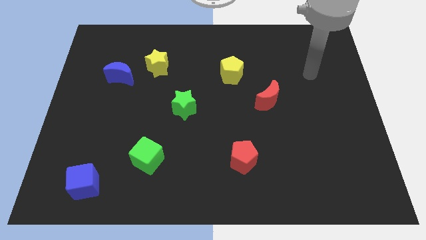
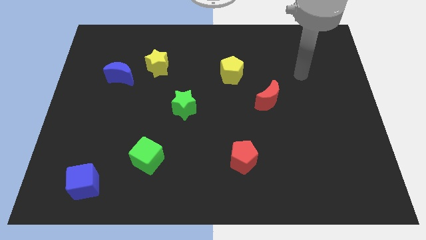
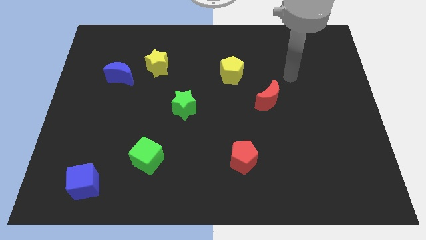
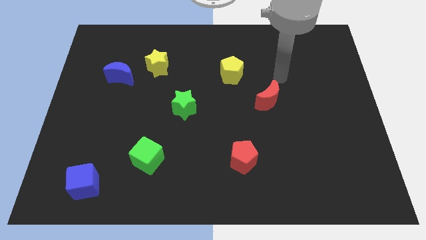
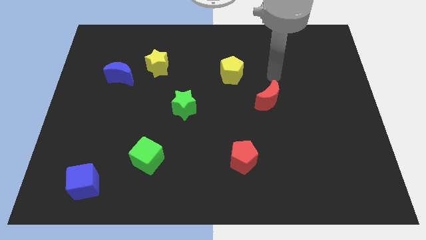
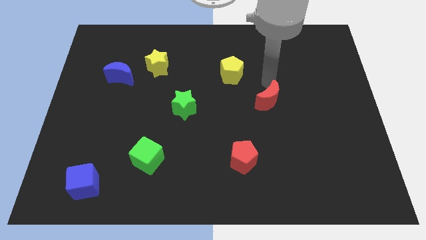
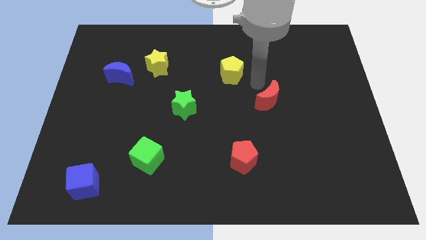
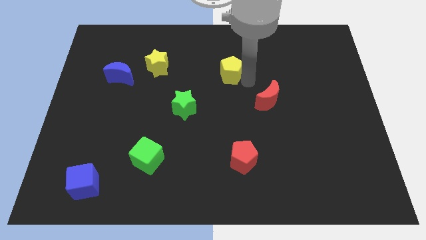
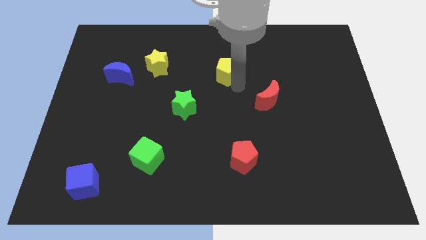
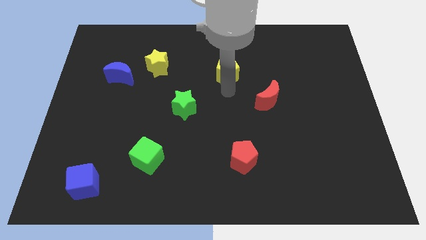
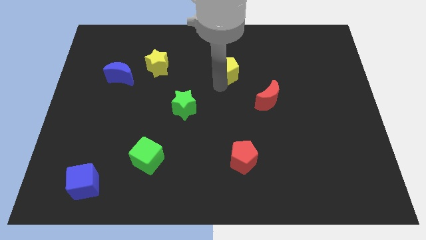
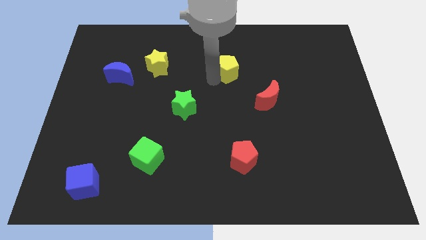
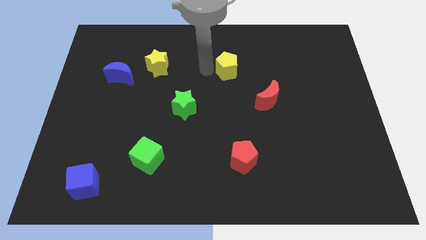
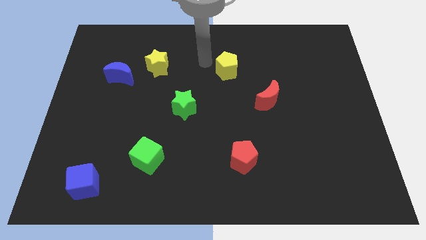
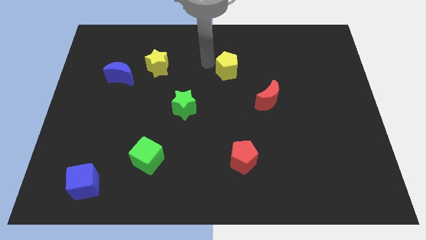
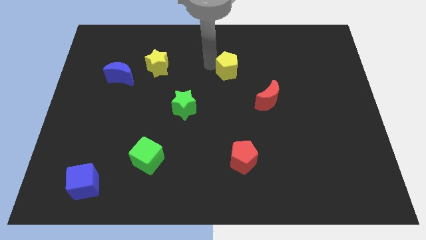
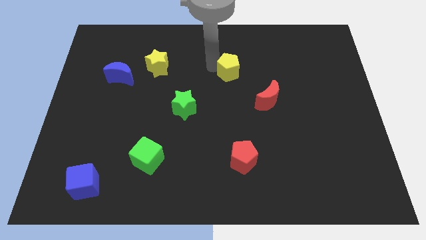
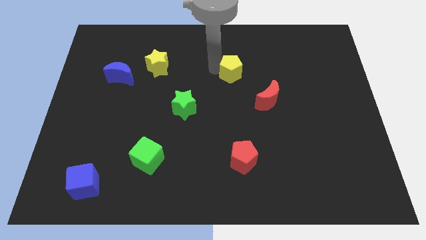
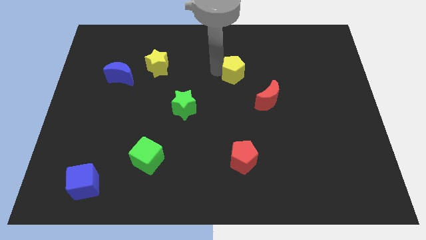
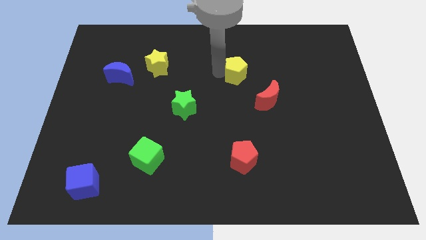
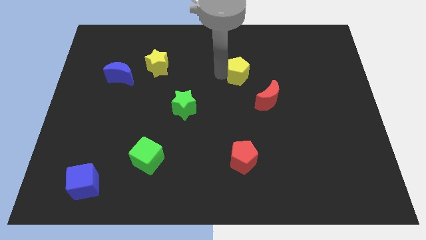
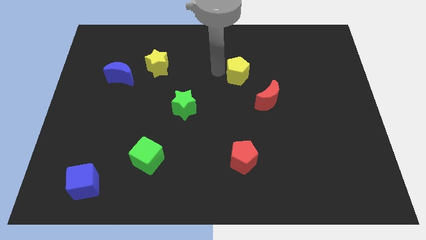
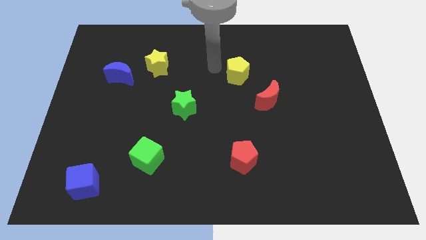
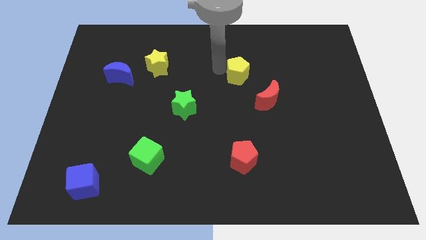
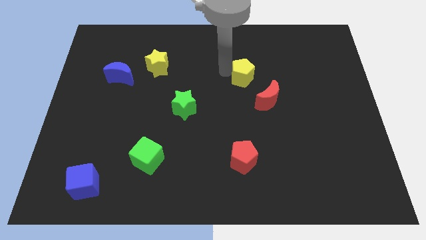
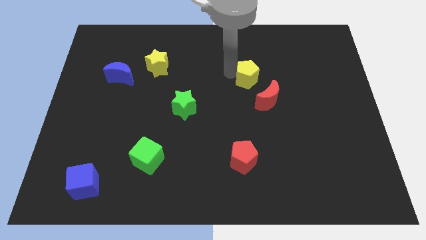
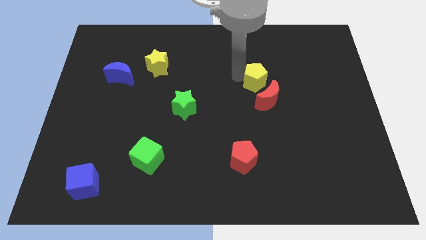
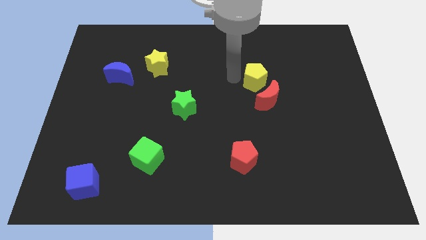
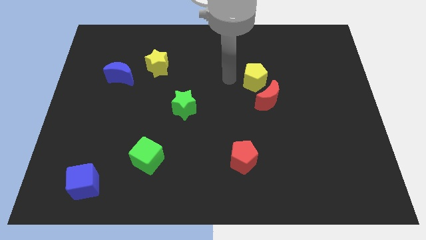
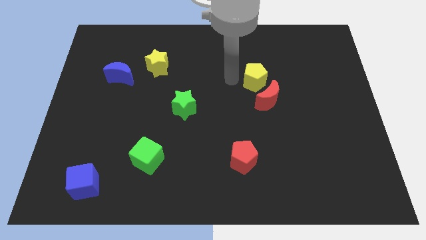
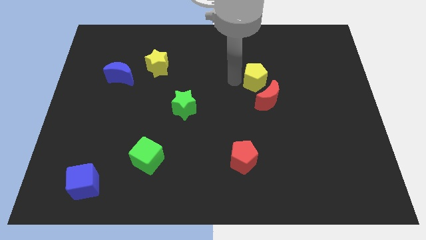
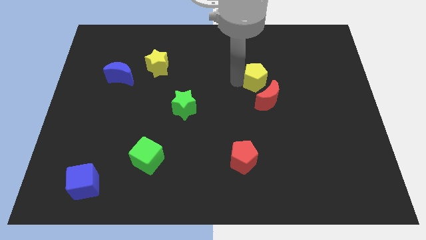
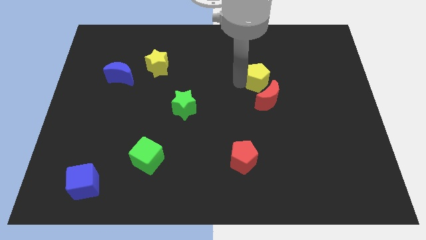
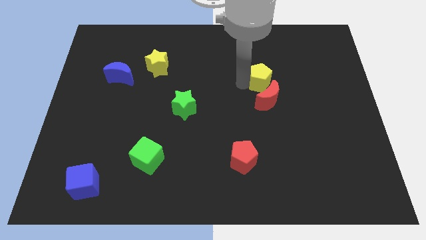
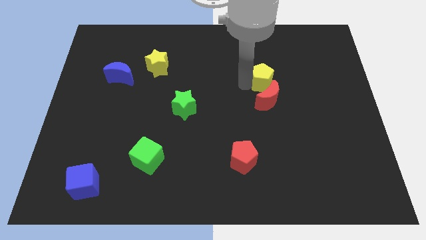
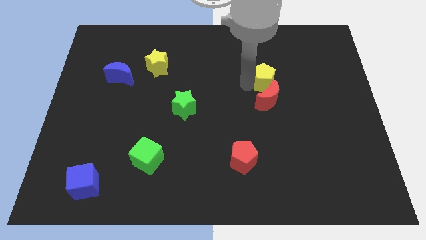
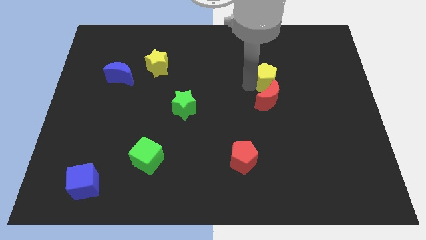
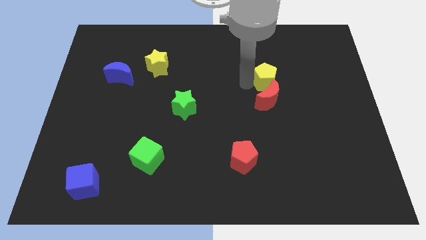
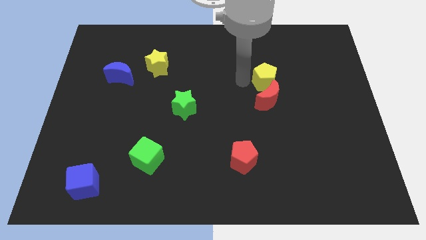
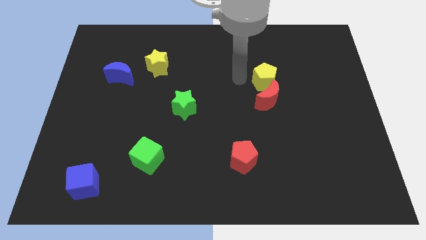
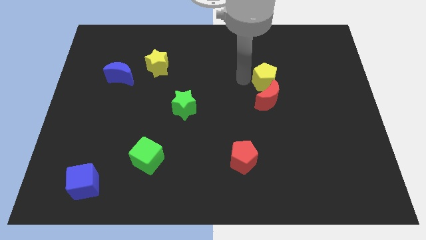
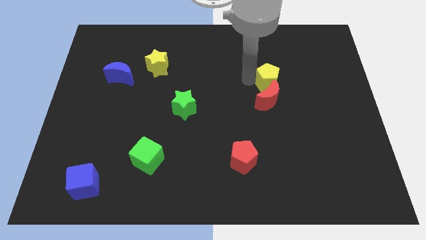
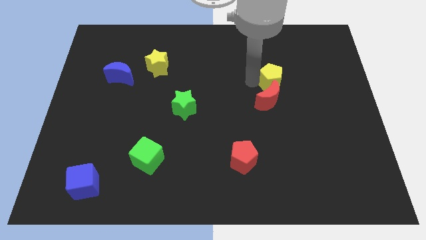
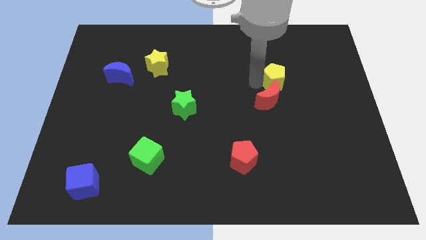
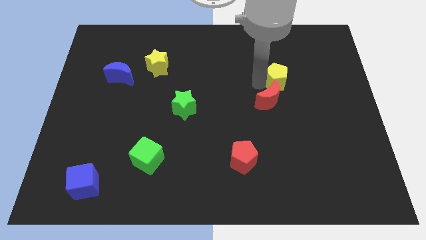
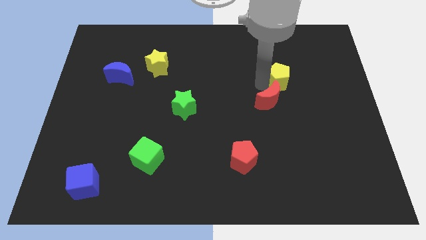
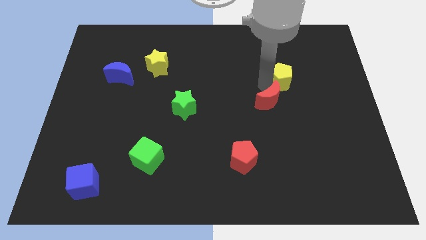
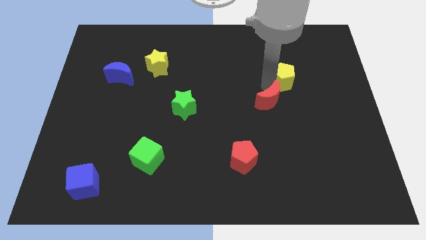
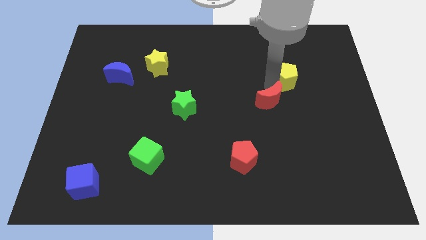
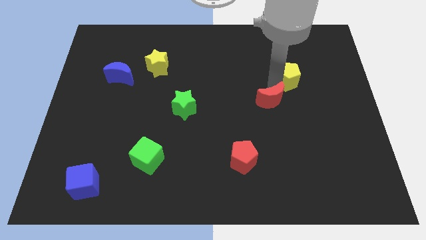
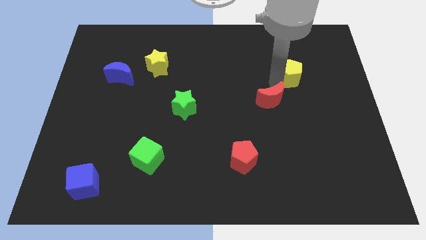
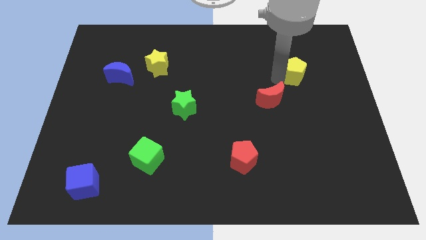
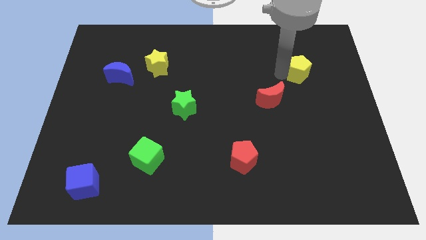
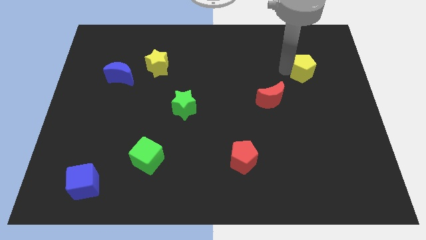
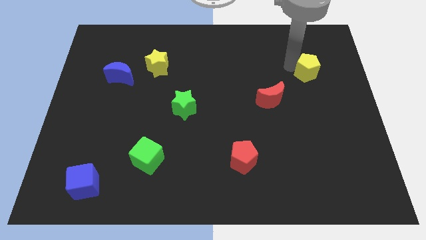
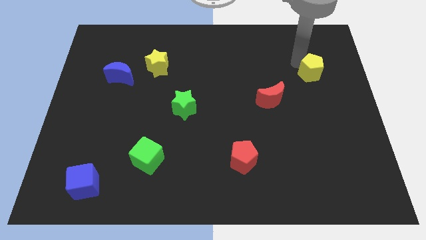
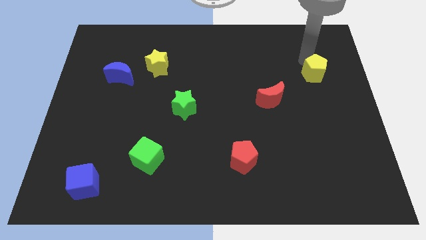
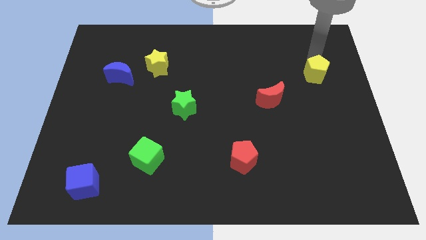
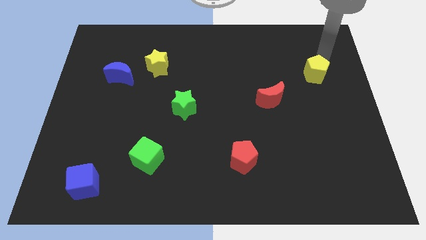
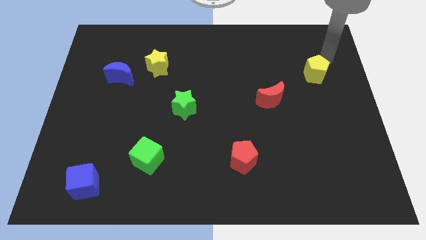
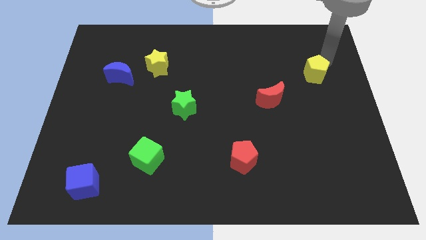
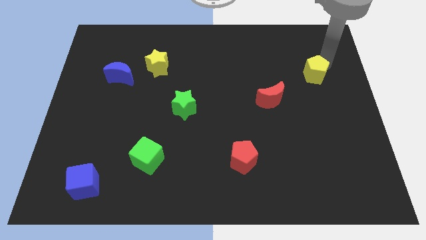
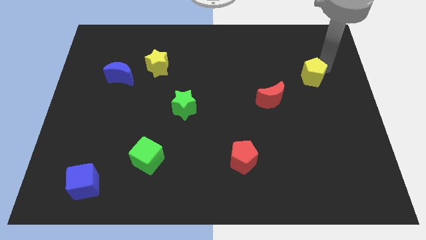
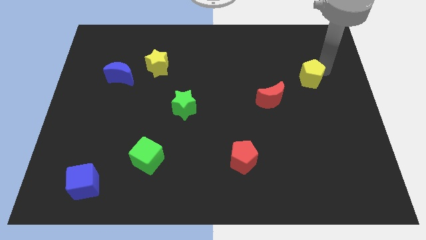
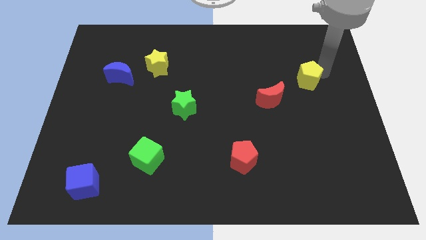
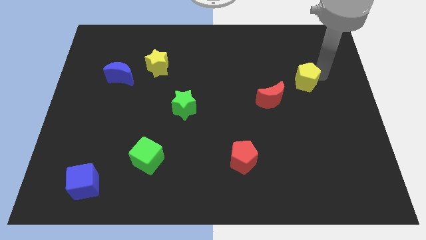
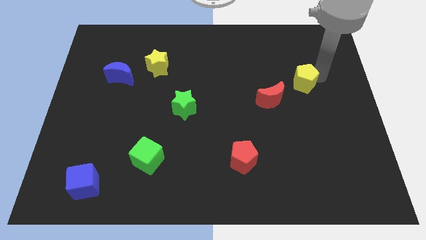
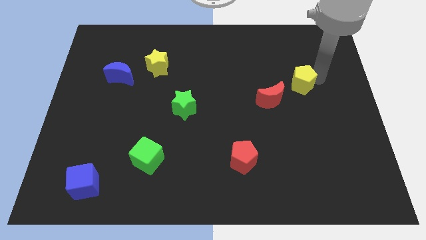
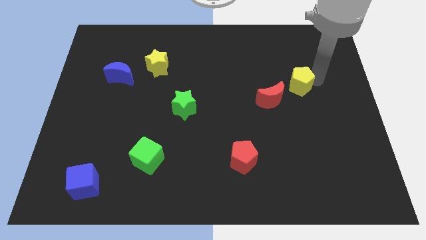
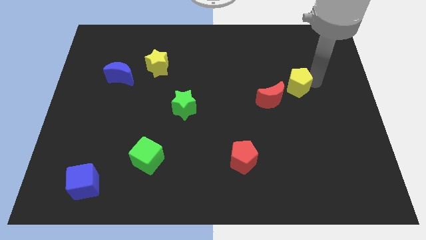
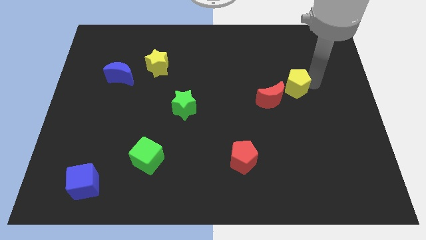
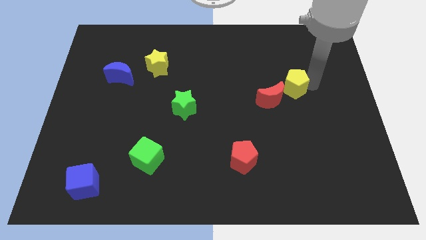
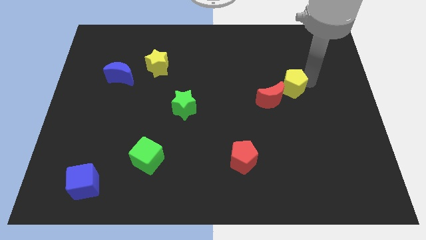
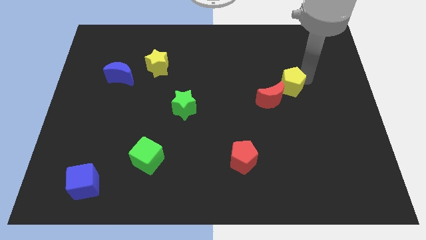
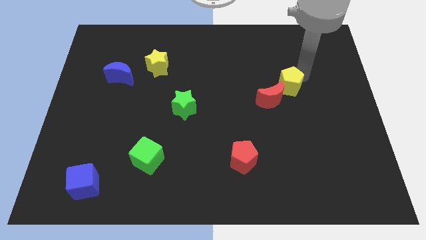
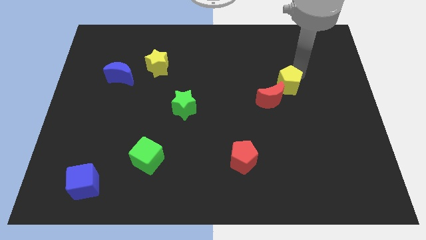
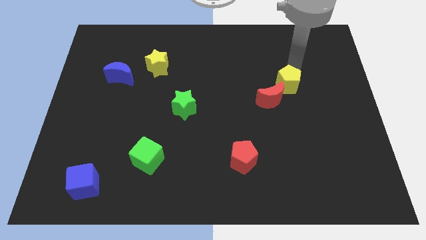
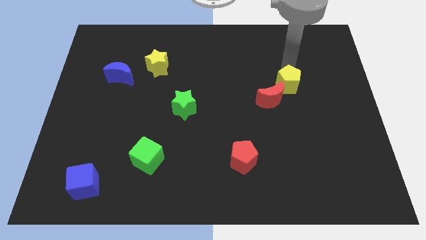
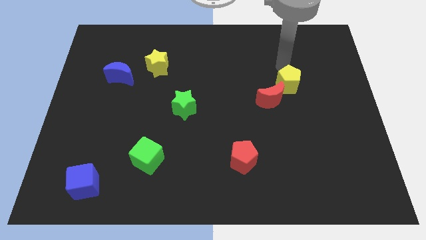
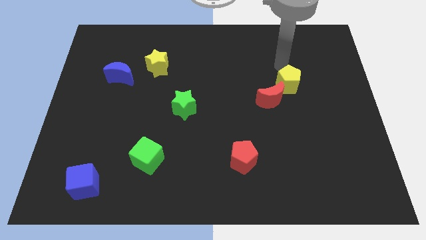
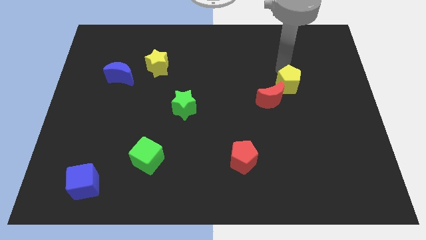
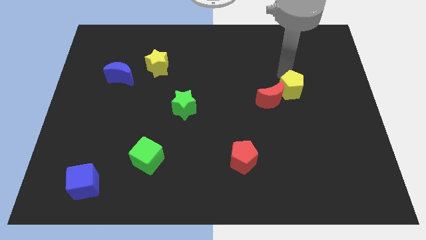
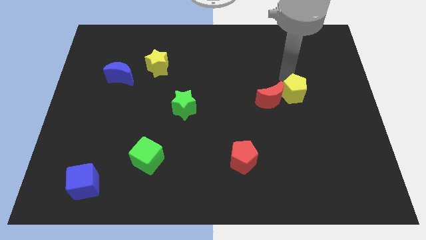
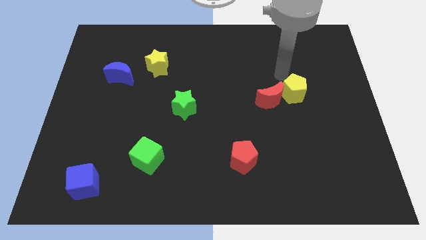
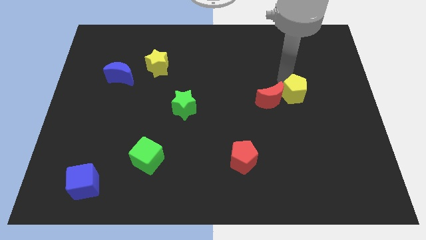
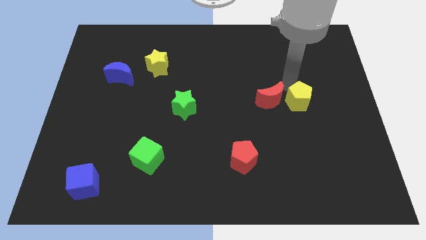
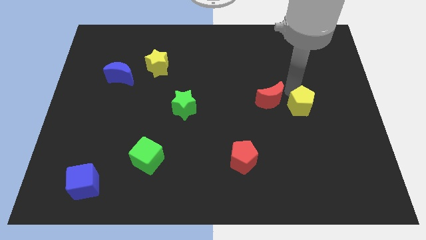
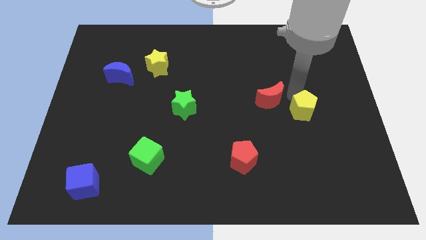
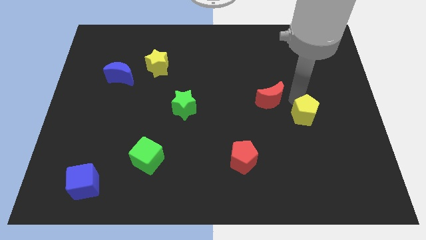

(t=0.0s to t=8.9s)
slide the yellow pentagon down and to the right
